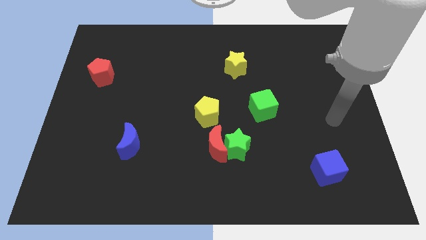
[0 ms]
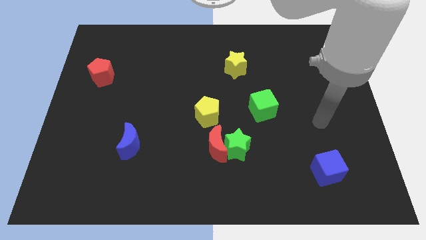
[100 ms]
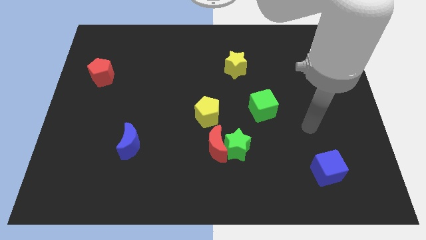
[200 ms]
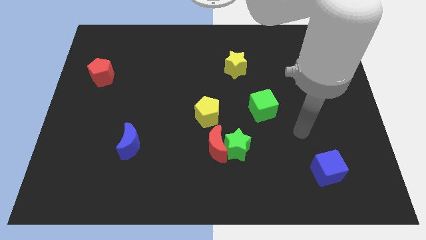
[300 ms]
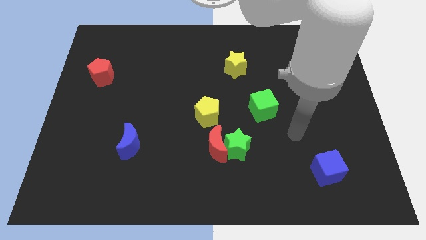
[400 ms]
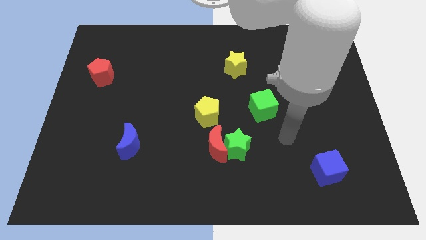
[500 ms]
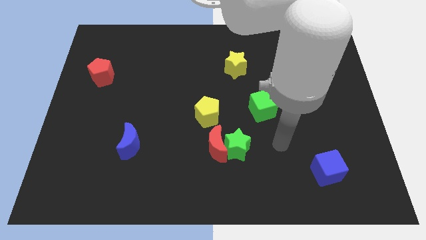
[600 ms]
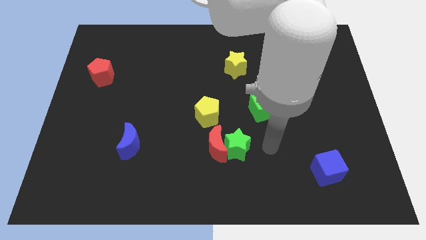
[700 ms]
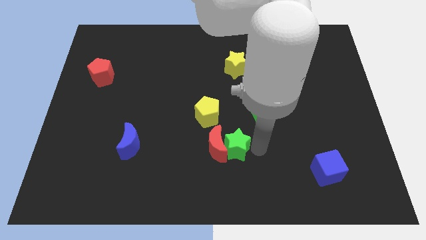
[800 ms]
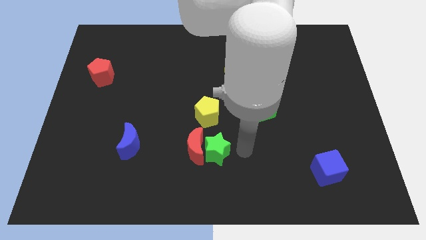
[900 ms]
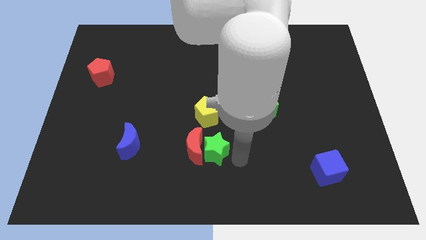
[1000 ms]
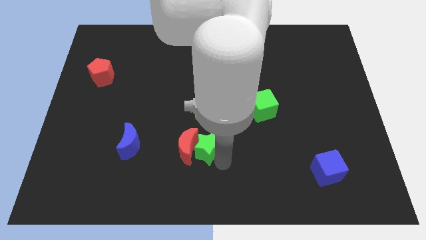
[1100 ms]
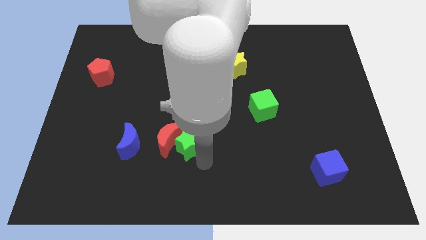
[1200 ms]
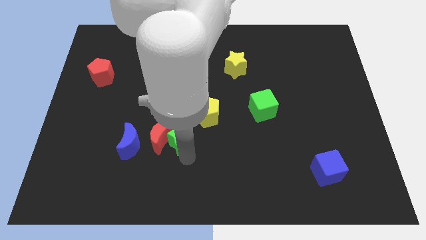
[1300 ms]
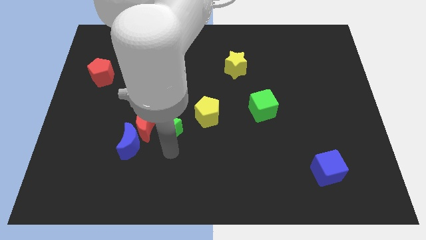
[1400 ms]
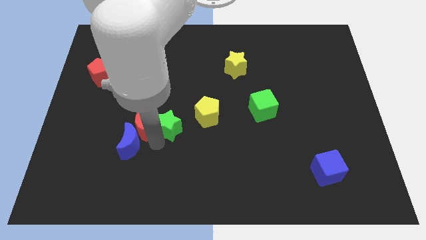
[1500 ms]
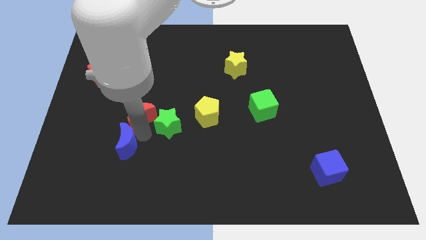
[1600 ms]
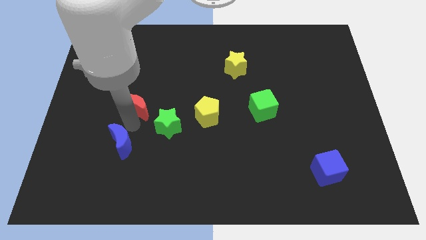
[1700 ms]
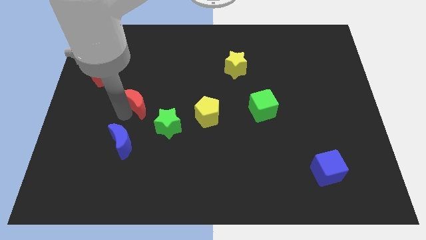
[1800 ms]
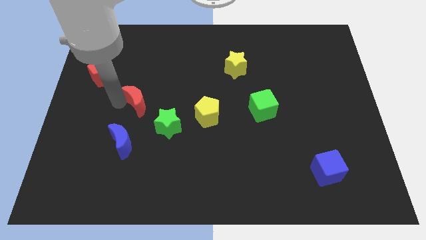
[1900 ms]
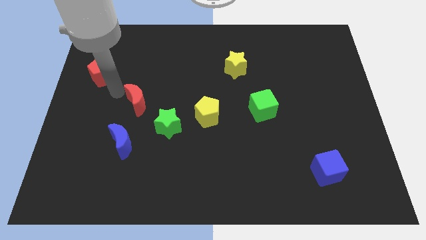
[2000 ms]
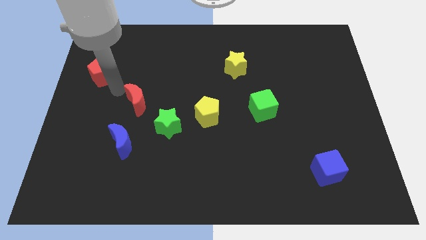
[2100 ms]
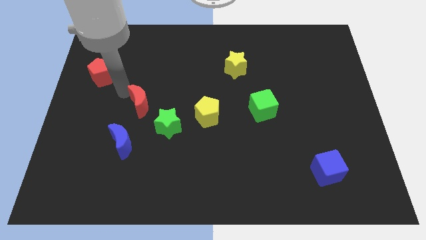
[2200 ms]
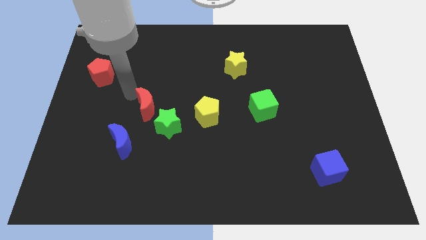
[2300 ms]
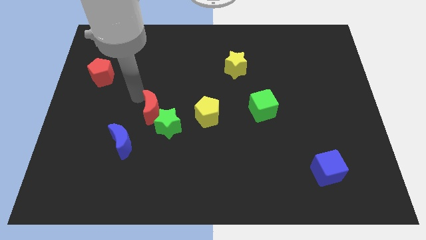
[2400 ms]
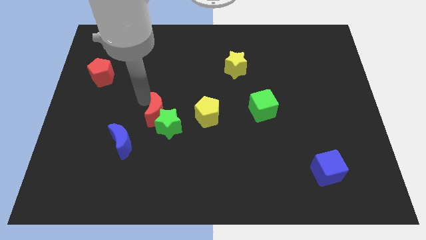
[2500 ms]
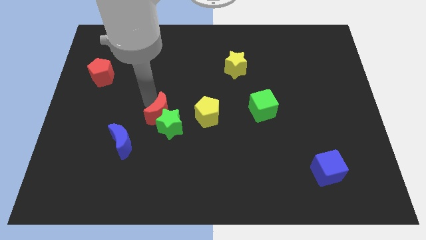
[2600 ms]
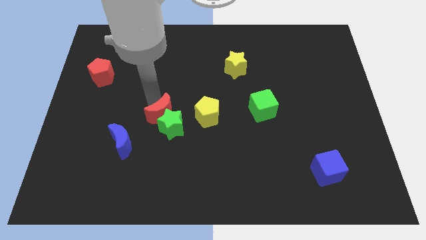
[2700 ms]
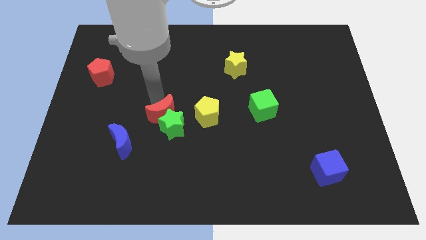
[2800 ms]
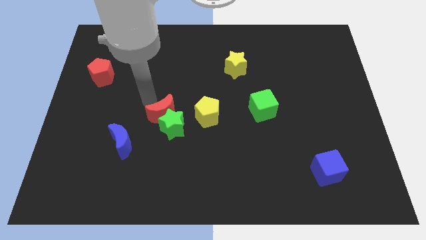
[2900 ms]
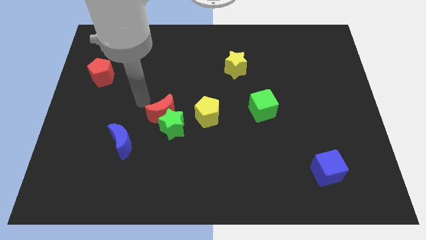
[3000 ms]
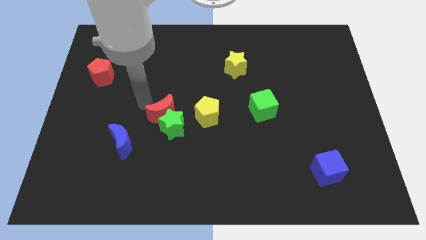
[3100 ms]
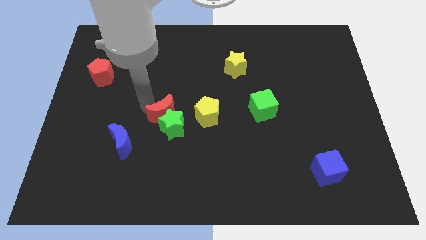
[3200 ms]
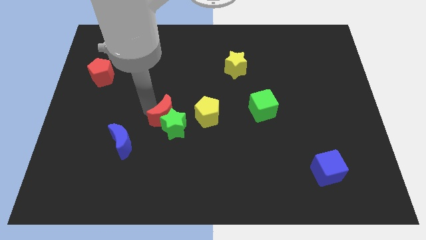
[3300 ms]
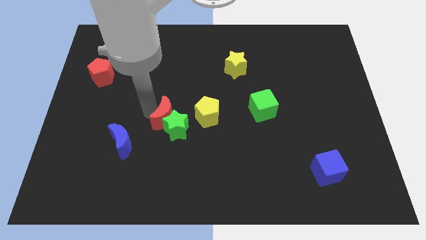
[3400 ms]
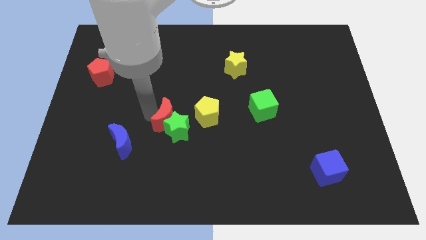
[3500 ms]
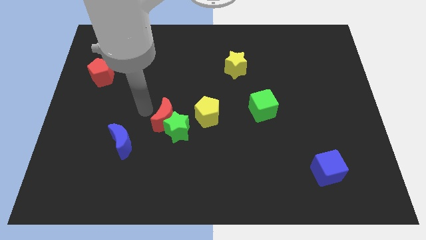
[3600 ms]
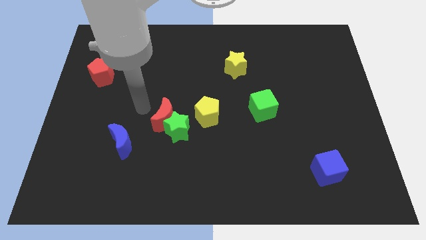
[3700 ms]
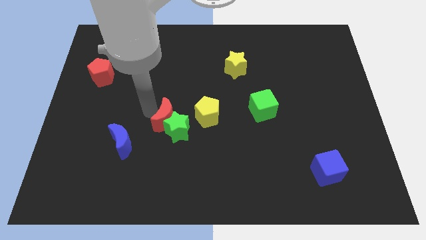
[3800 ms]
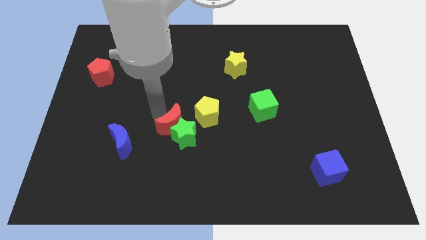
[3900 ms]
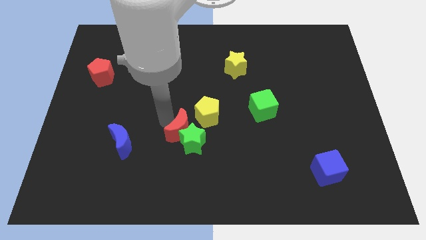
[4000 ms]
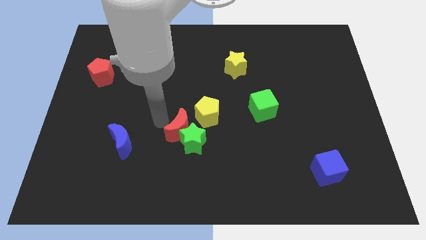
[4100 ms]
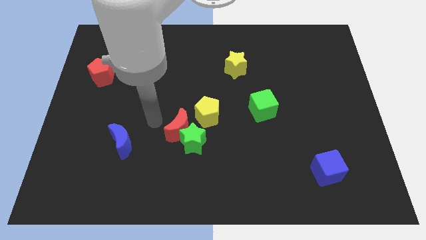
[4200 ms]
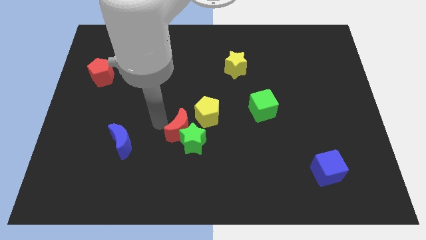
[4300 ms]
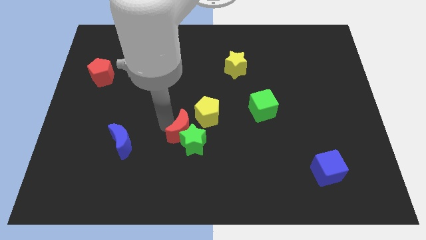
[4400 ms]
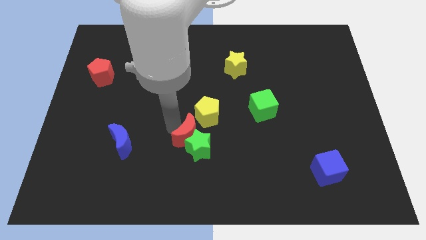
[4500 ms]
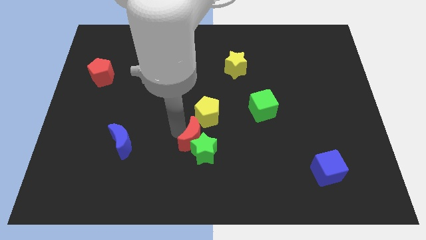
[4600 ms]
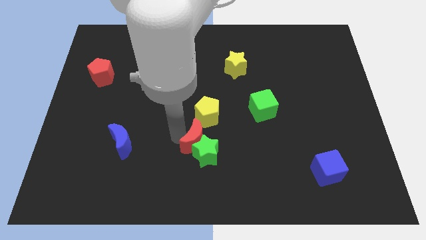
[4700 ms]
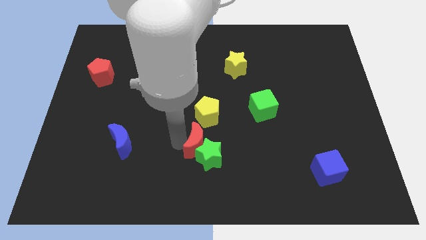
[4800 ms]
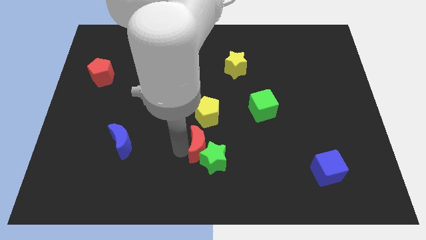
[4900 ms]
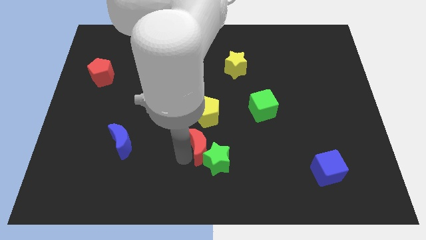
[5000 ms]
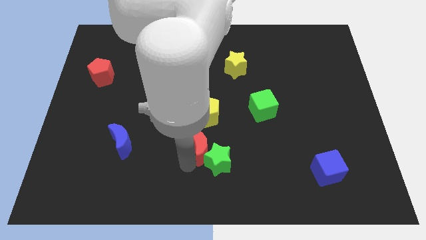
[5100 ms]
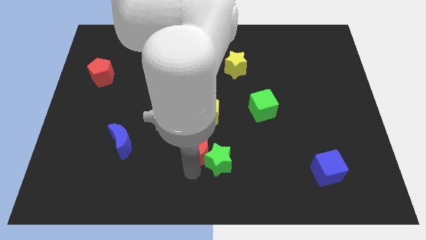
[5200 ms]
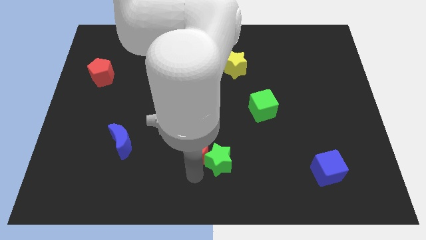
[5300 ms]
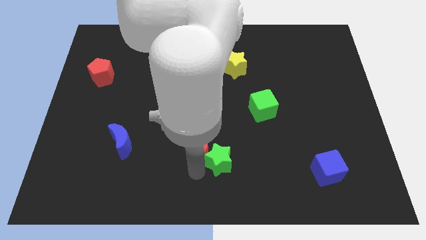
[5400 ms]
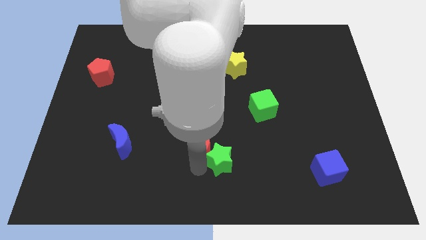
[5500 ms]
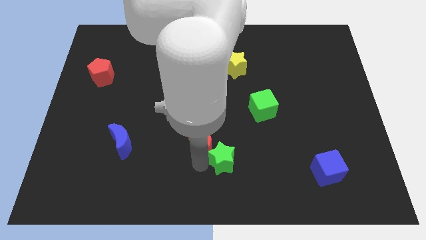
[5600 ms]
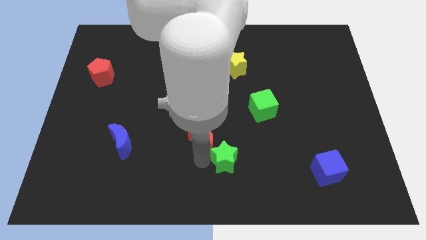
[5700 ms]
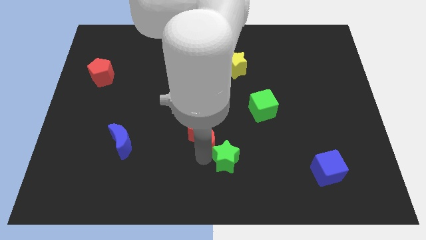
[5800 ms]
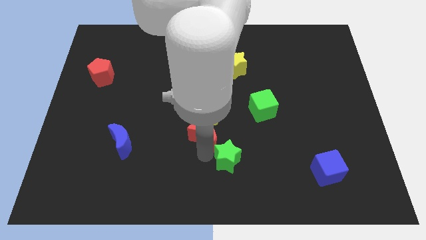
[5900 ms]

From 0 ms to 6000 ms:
put the red moon next to the yellow pentagon
